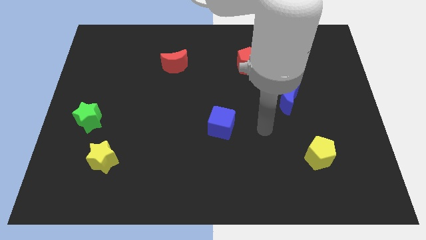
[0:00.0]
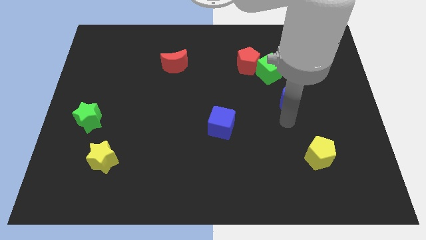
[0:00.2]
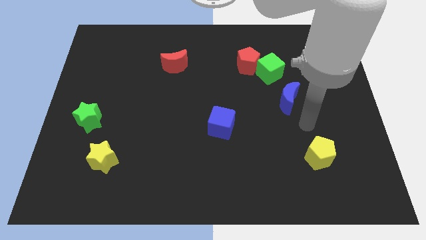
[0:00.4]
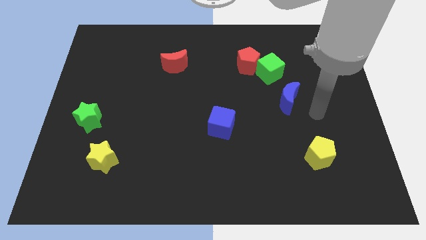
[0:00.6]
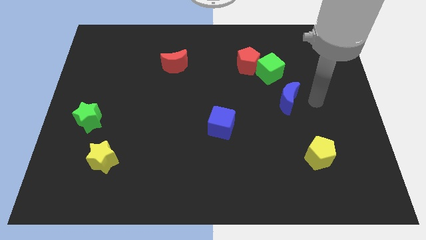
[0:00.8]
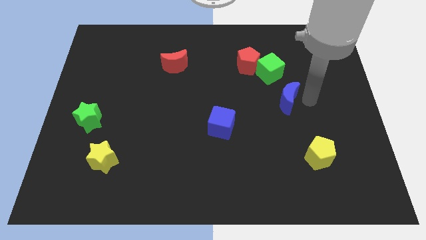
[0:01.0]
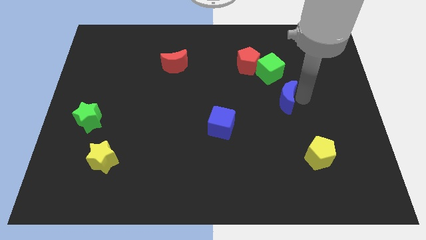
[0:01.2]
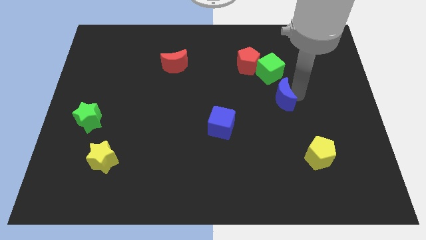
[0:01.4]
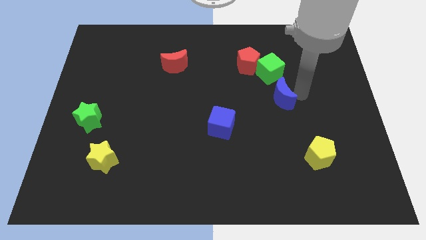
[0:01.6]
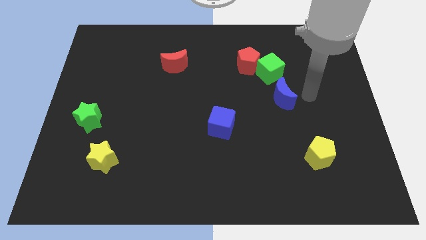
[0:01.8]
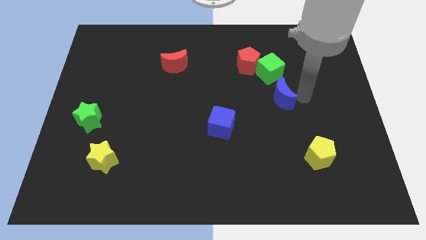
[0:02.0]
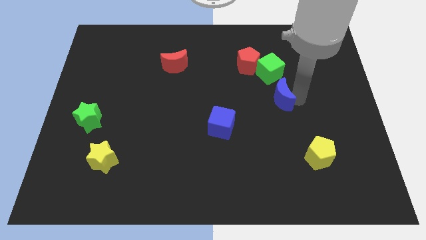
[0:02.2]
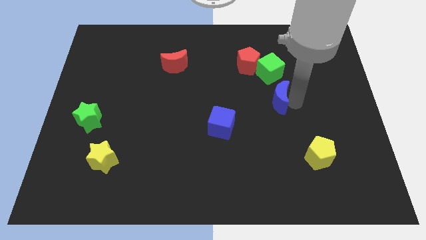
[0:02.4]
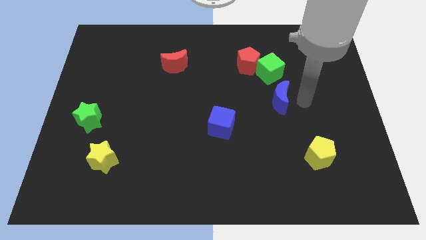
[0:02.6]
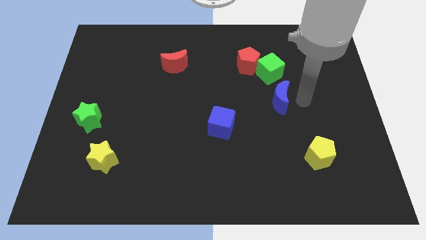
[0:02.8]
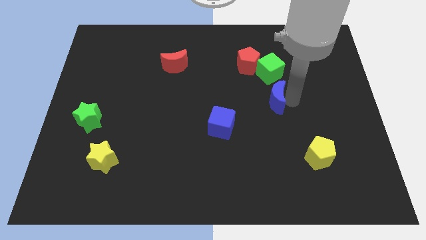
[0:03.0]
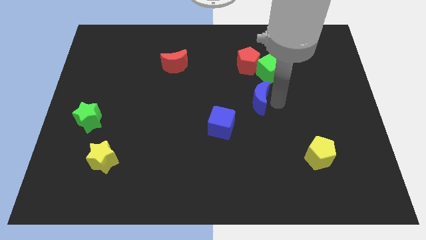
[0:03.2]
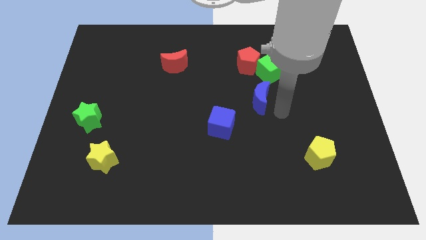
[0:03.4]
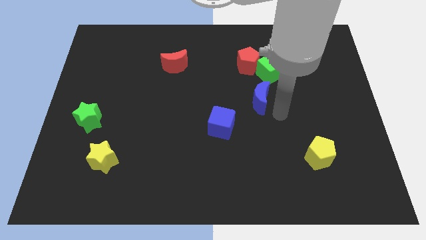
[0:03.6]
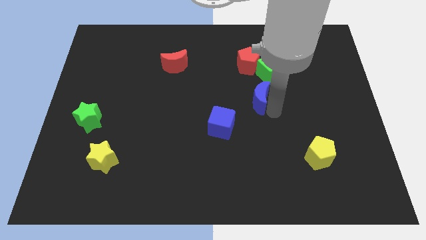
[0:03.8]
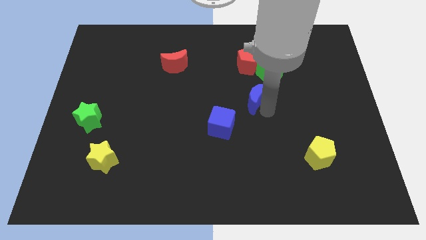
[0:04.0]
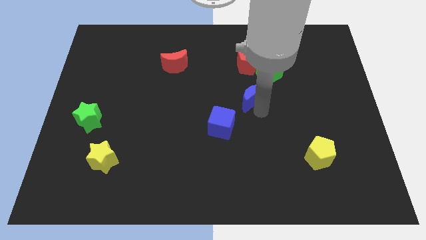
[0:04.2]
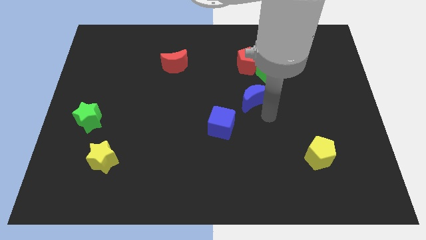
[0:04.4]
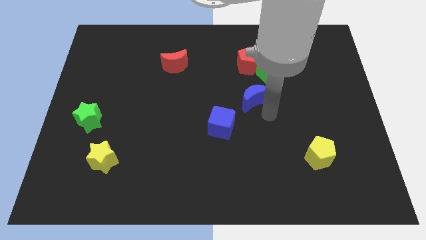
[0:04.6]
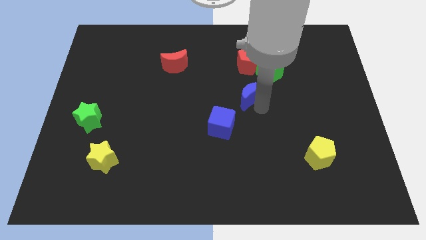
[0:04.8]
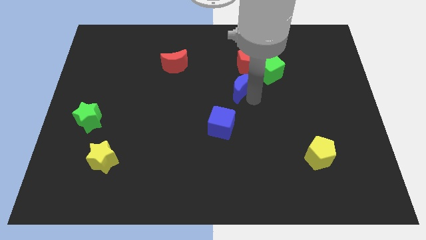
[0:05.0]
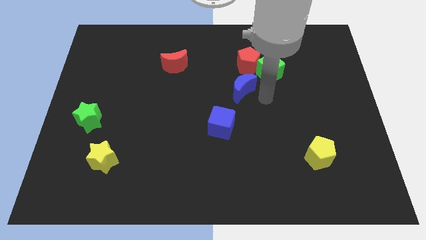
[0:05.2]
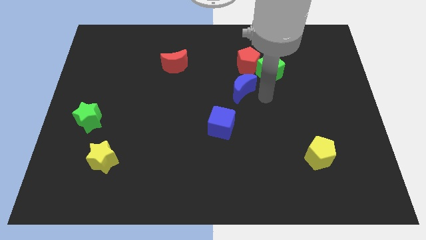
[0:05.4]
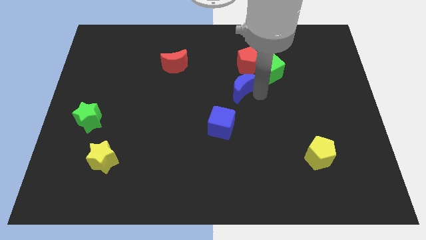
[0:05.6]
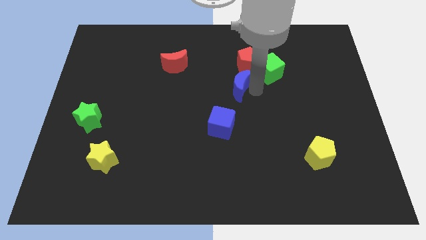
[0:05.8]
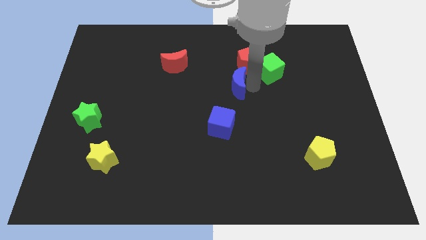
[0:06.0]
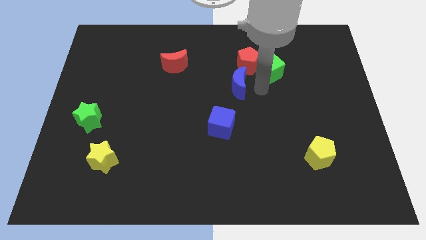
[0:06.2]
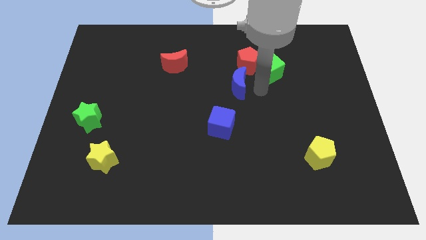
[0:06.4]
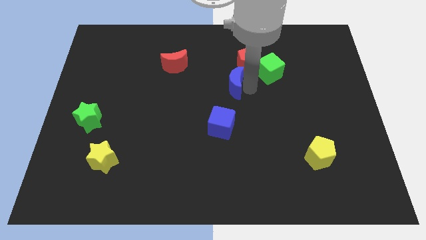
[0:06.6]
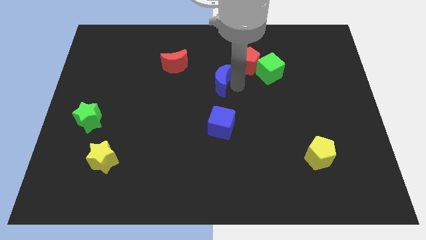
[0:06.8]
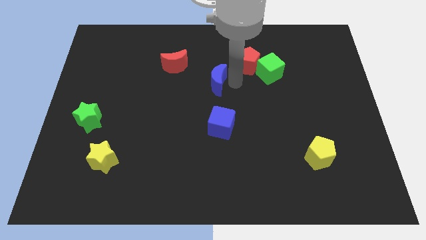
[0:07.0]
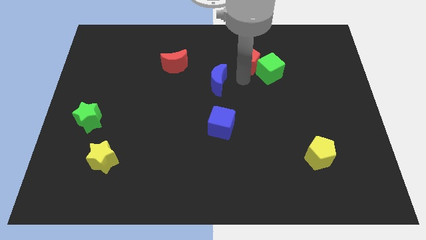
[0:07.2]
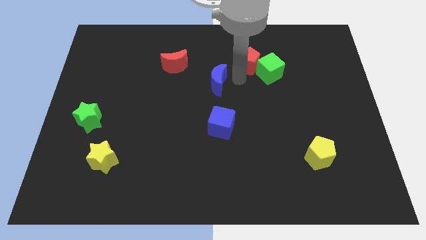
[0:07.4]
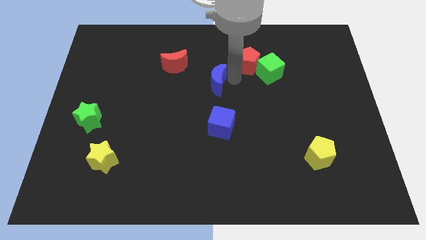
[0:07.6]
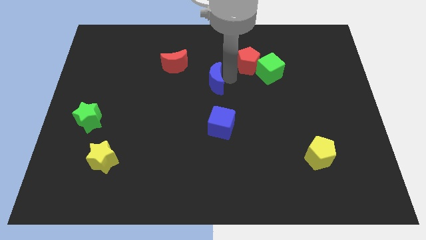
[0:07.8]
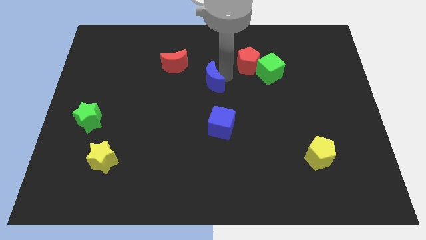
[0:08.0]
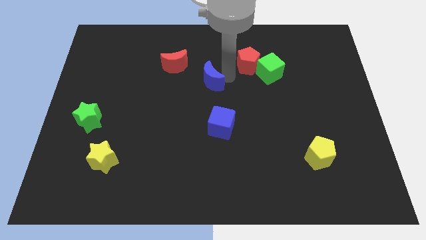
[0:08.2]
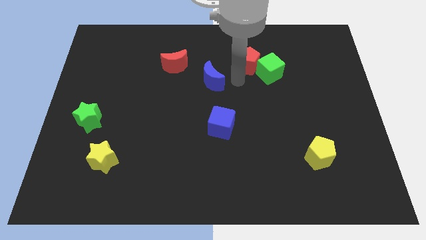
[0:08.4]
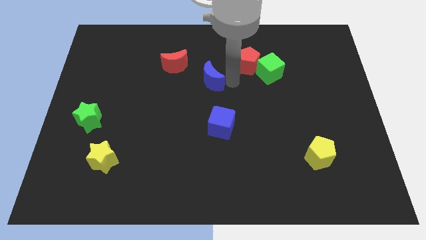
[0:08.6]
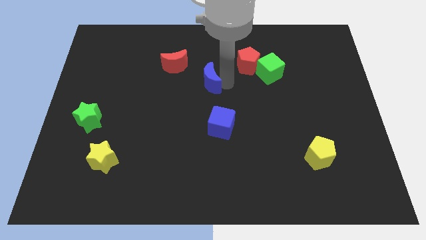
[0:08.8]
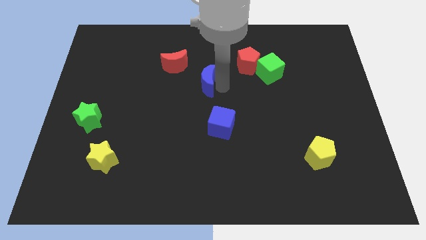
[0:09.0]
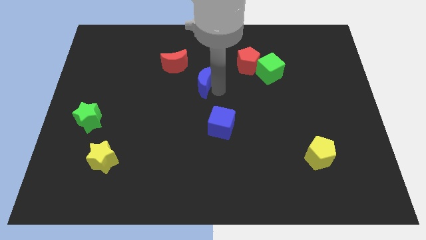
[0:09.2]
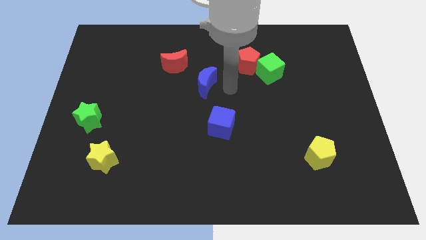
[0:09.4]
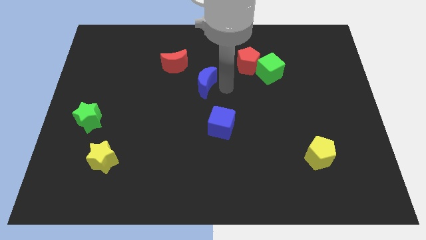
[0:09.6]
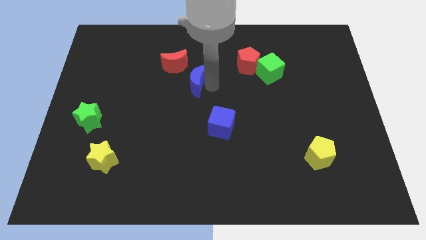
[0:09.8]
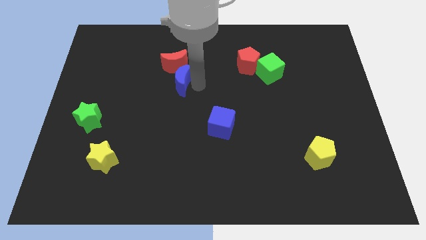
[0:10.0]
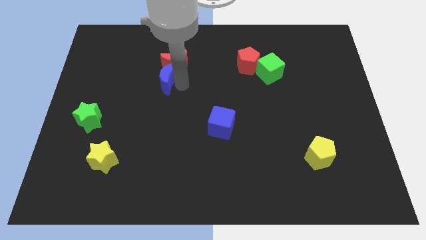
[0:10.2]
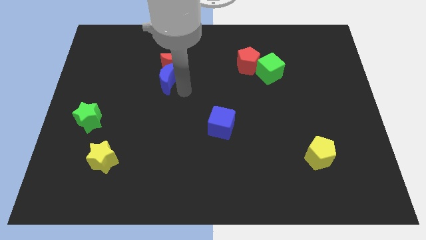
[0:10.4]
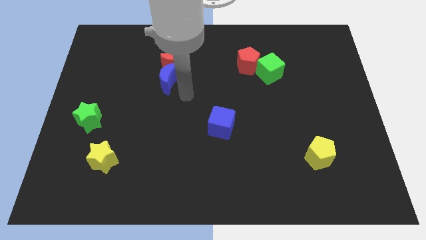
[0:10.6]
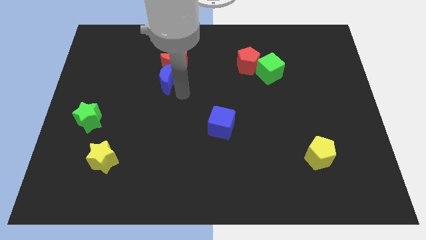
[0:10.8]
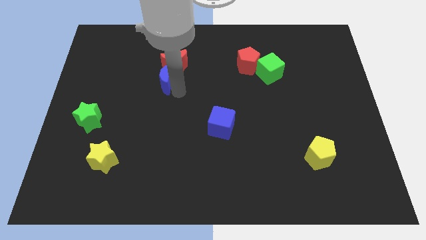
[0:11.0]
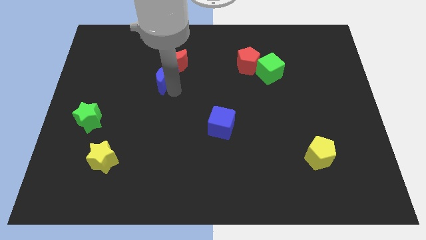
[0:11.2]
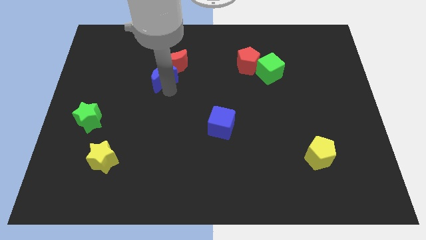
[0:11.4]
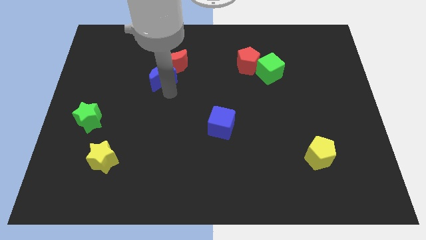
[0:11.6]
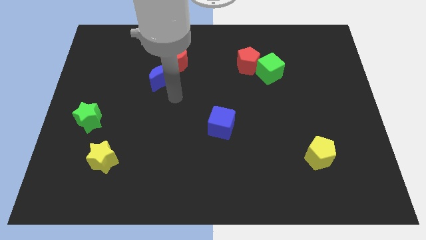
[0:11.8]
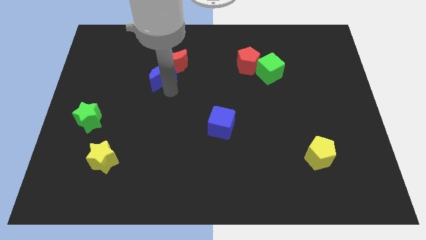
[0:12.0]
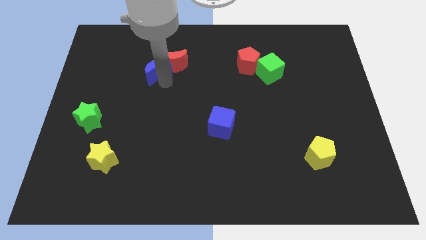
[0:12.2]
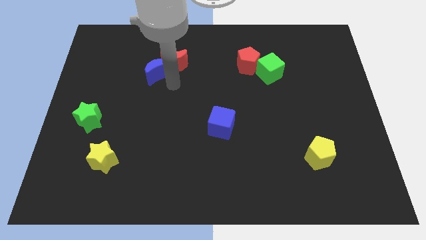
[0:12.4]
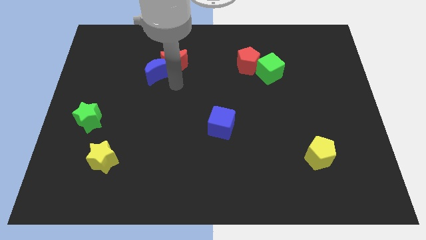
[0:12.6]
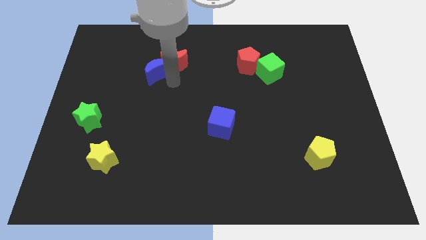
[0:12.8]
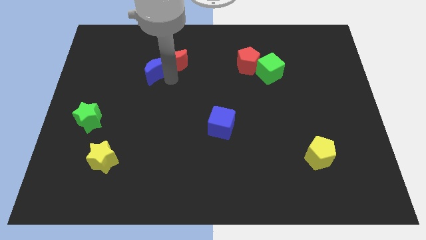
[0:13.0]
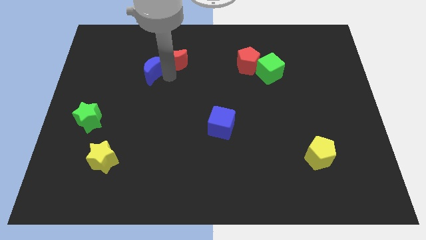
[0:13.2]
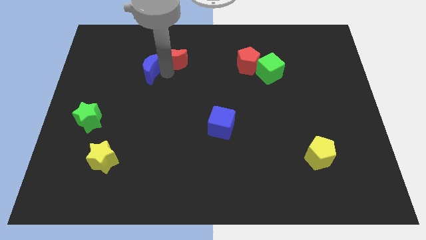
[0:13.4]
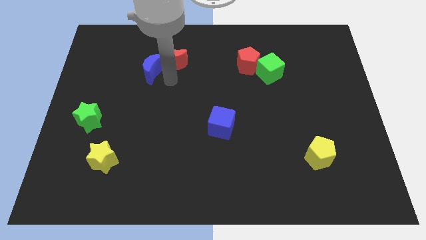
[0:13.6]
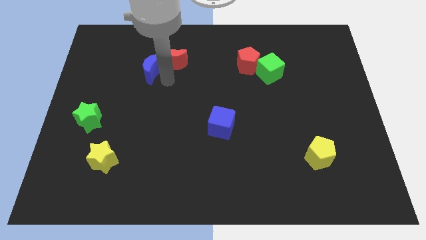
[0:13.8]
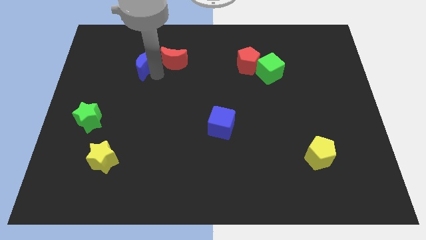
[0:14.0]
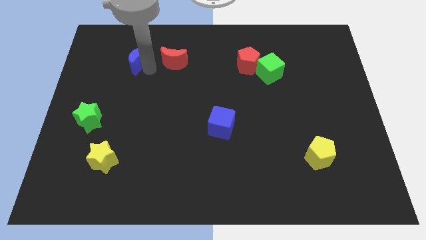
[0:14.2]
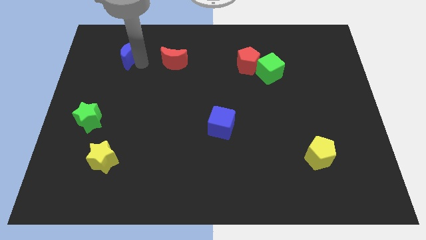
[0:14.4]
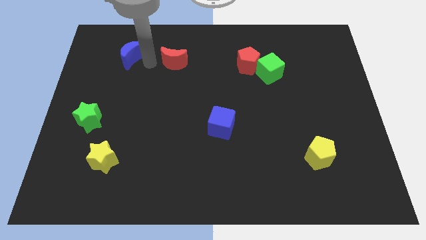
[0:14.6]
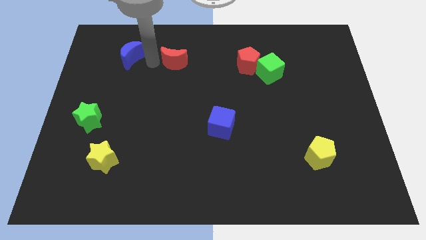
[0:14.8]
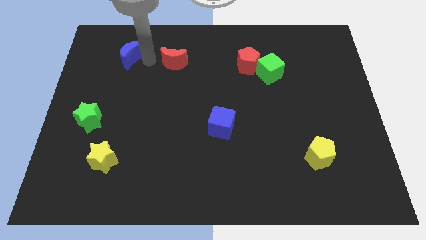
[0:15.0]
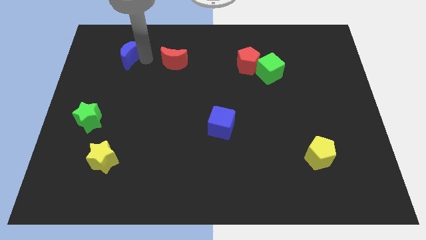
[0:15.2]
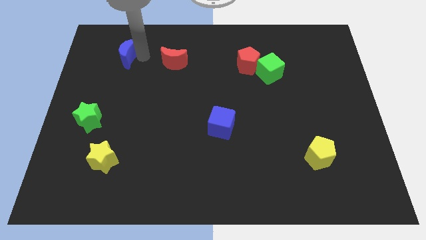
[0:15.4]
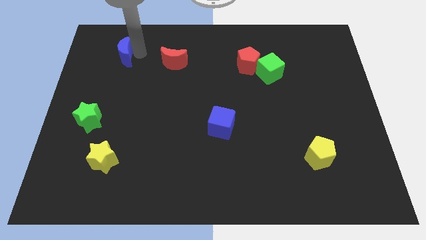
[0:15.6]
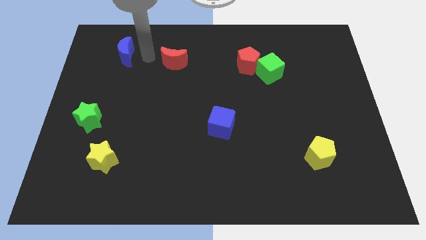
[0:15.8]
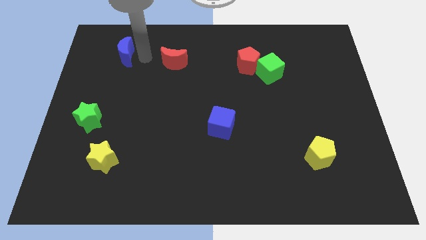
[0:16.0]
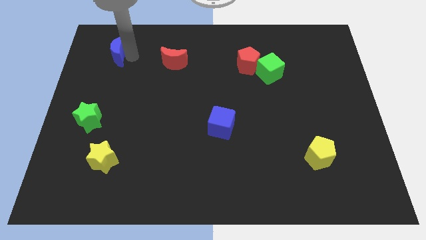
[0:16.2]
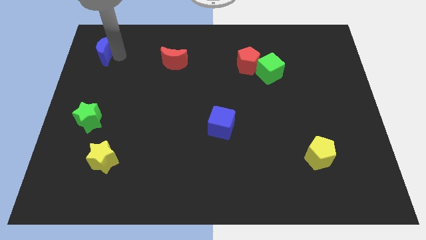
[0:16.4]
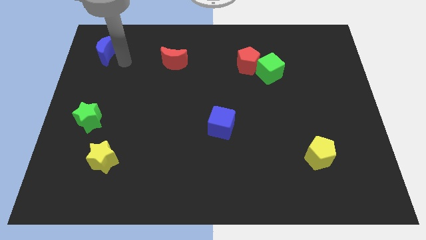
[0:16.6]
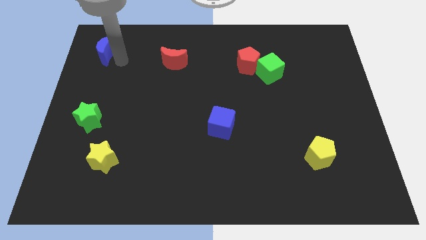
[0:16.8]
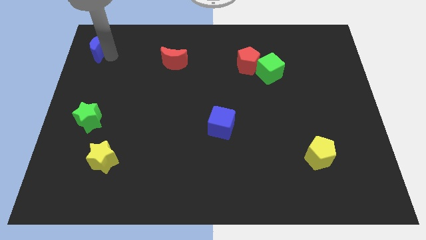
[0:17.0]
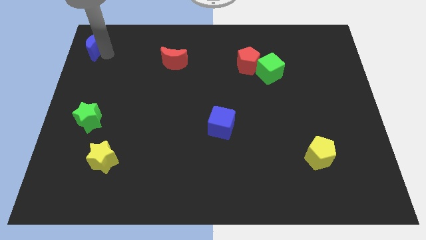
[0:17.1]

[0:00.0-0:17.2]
push the blue moon to the upper left corner
